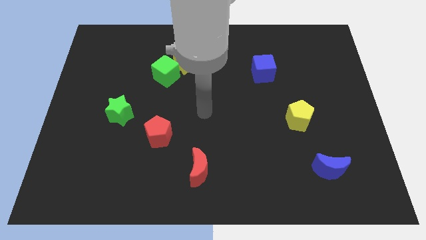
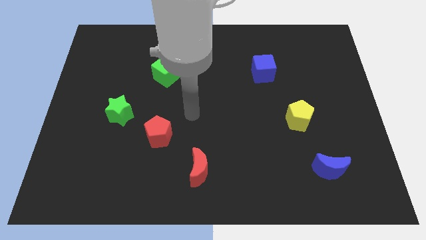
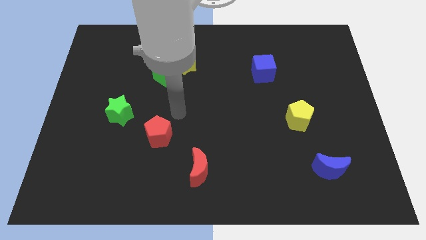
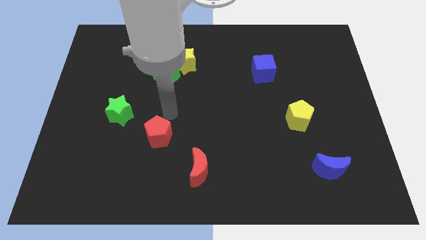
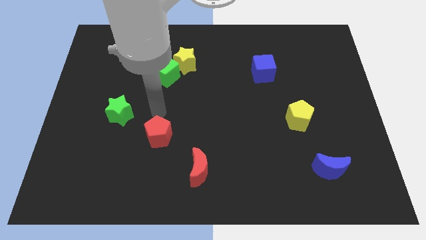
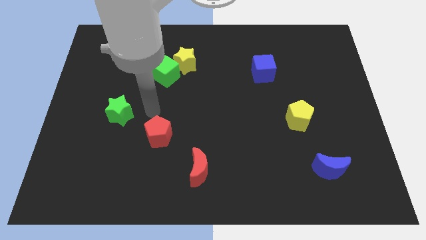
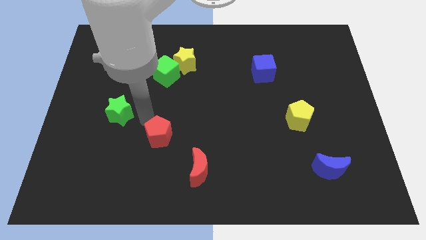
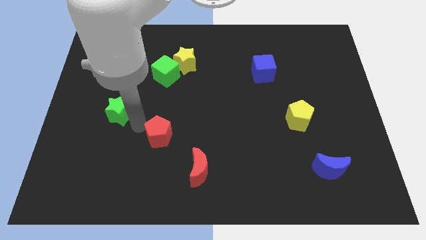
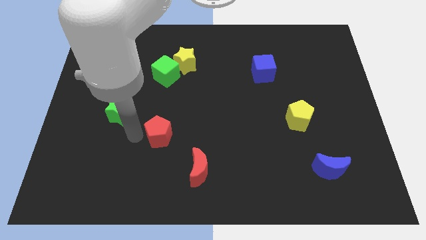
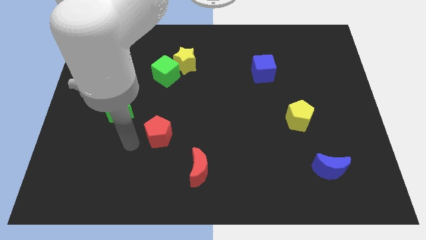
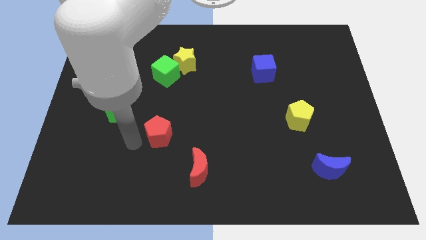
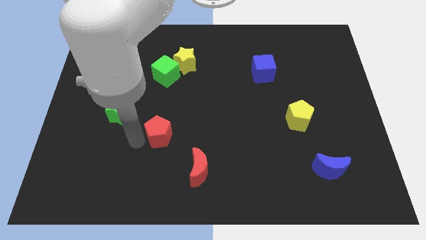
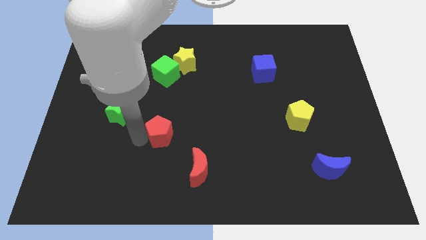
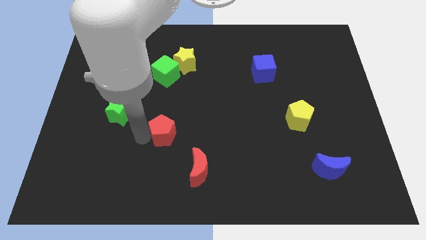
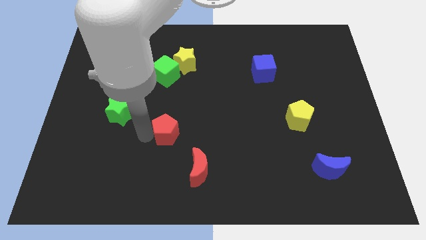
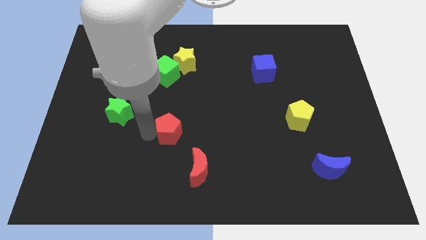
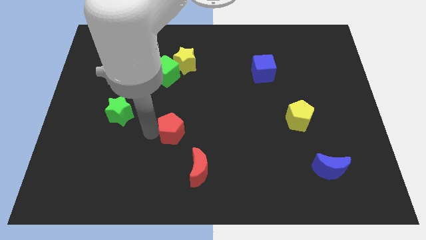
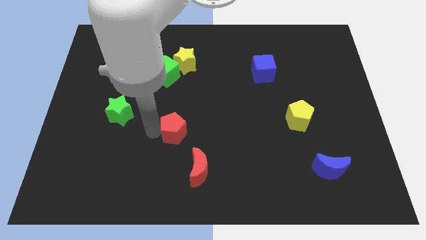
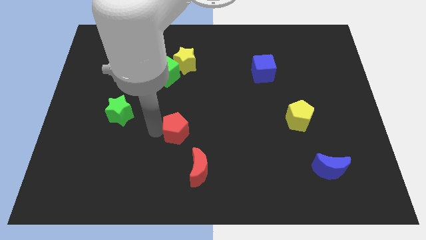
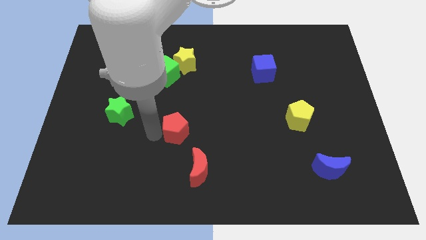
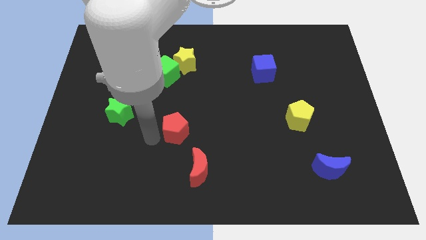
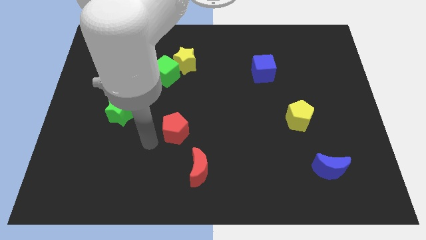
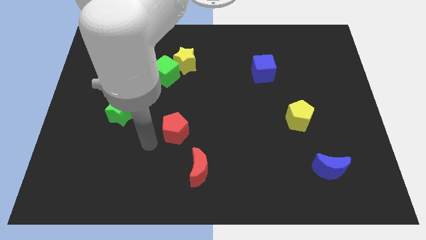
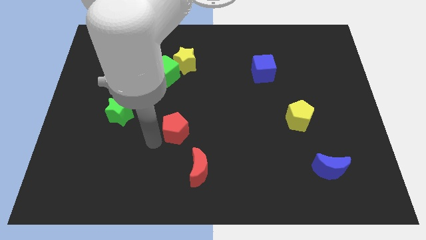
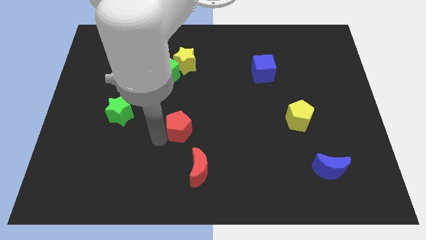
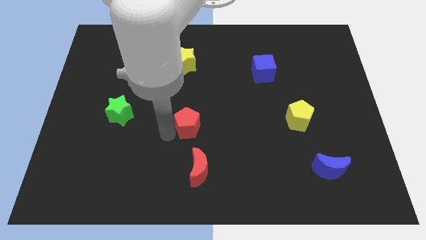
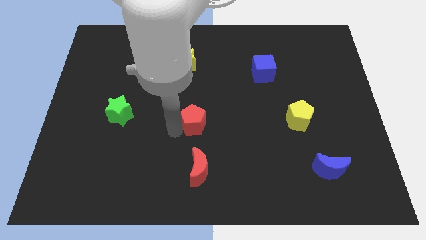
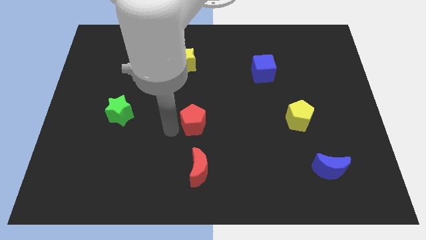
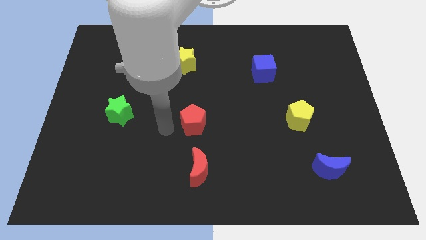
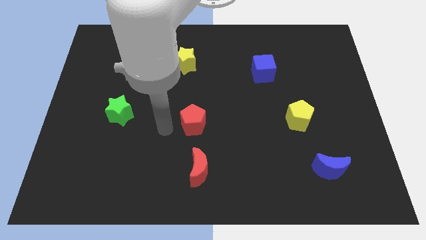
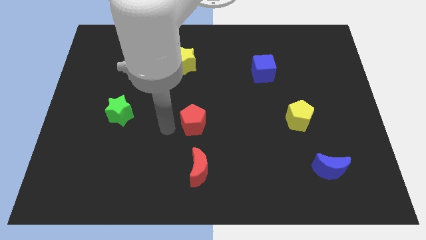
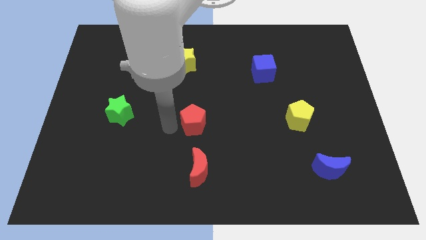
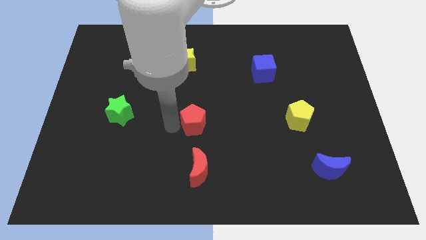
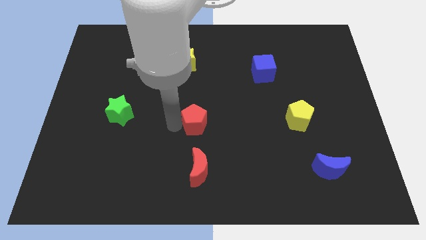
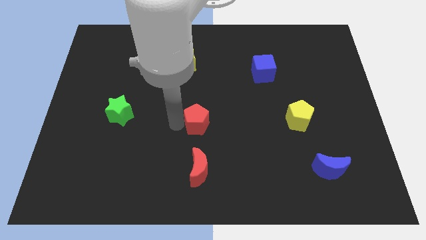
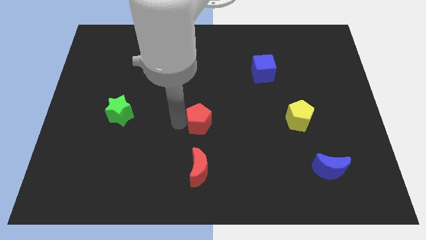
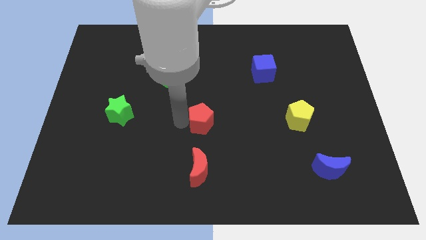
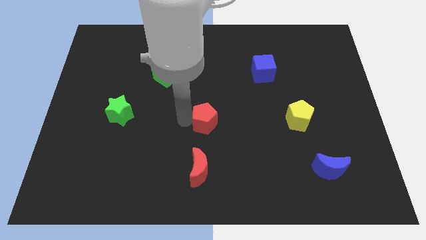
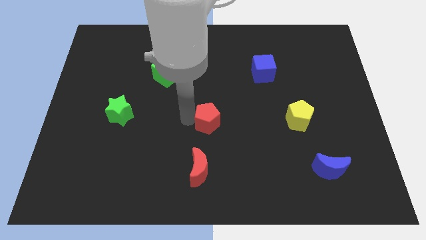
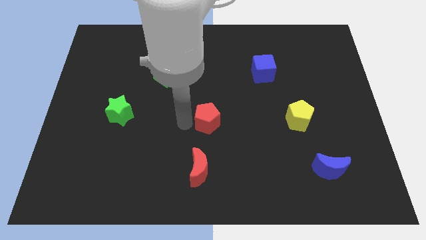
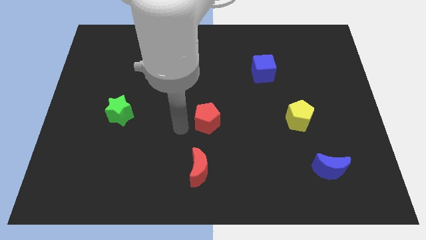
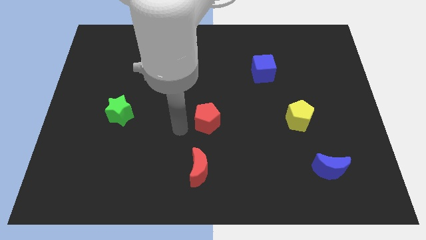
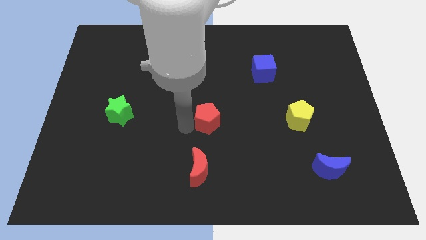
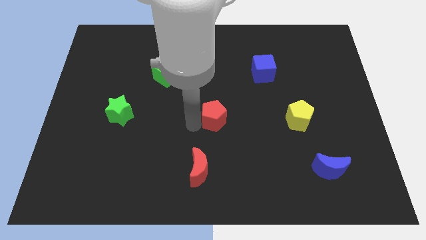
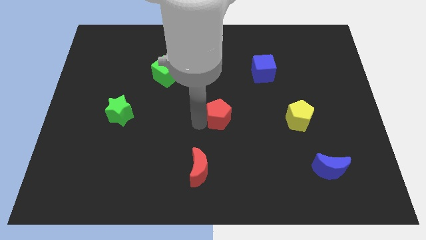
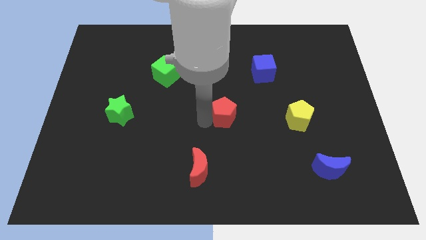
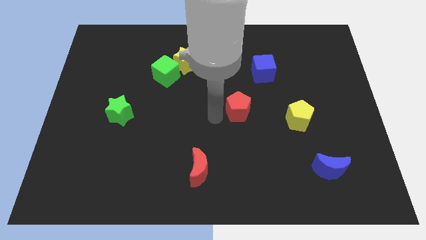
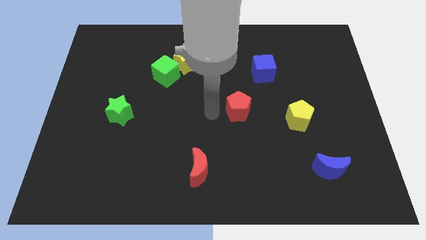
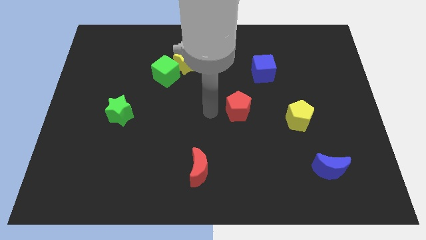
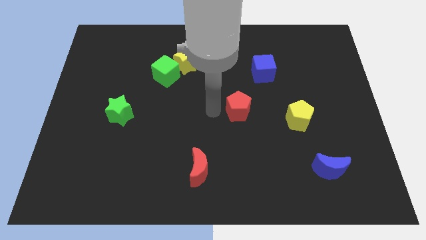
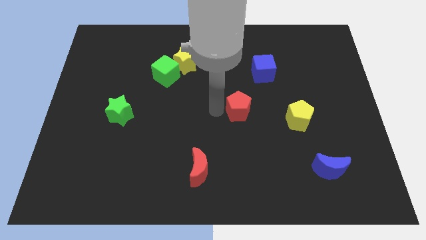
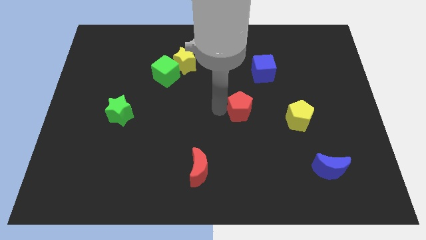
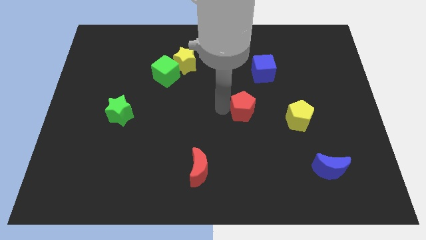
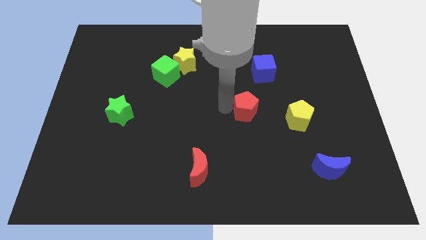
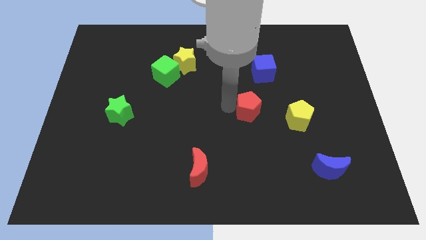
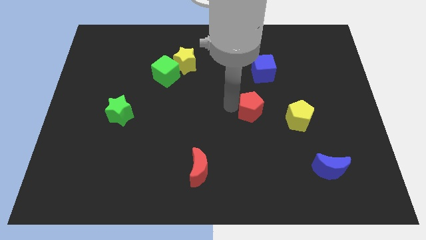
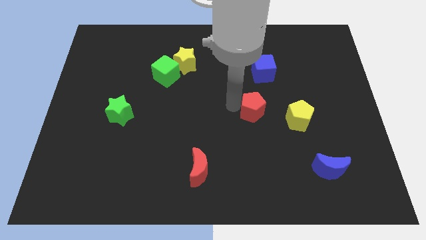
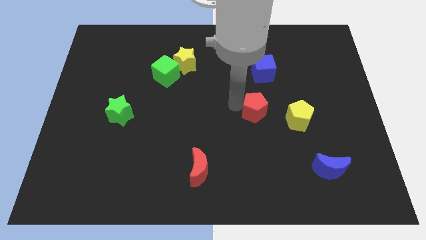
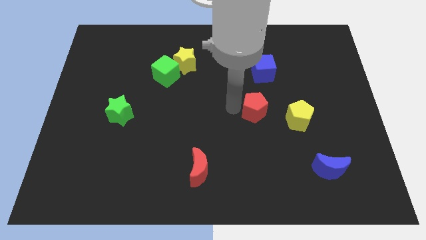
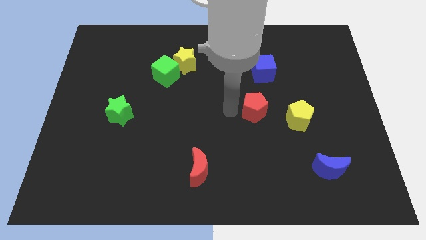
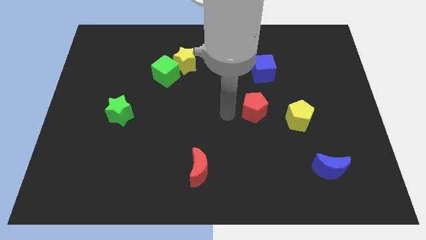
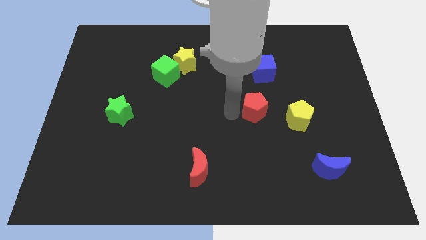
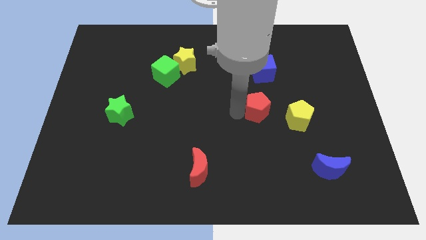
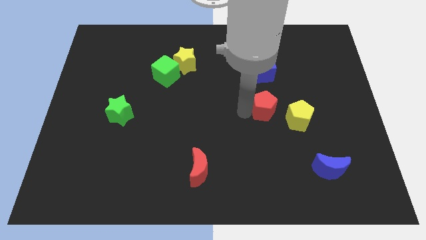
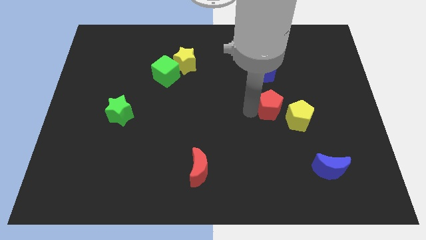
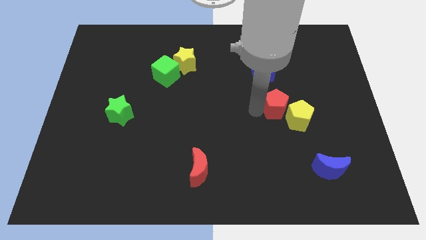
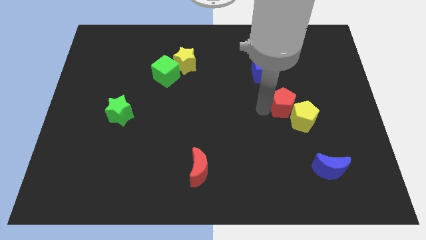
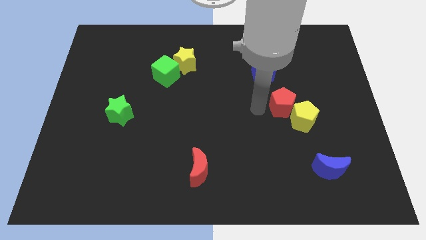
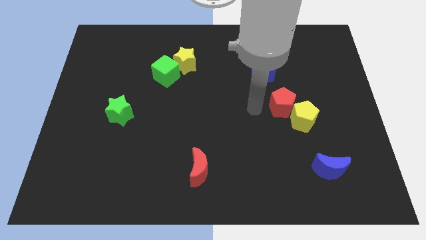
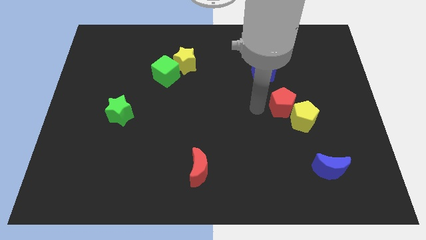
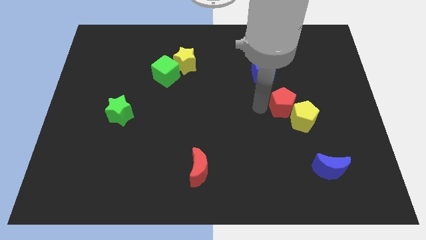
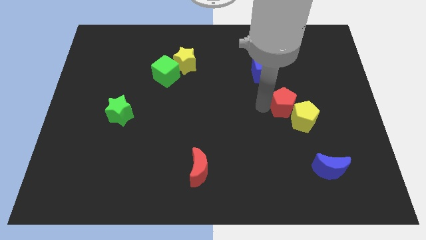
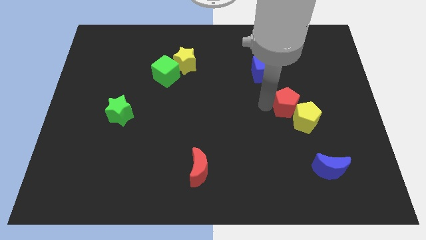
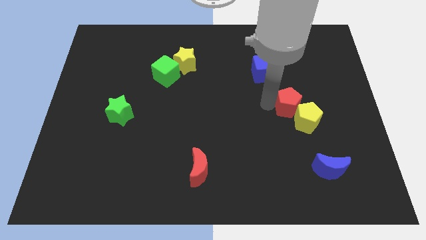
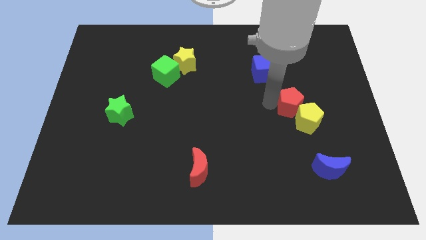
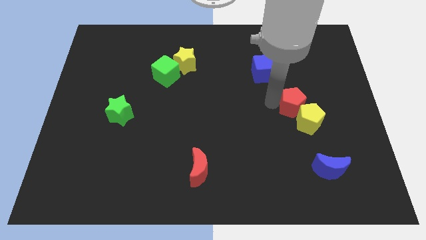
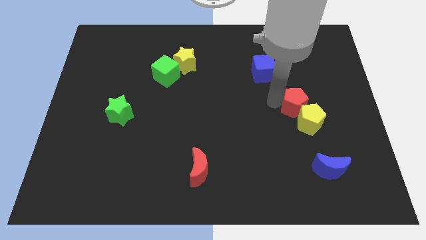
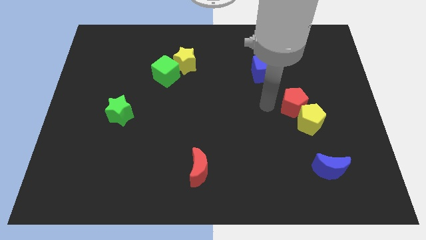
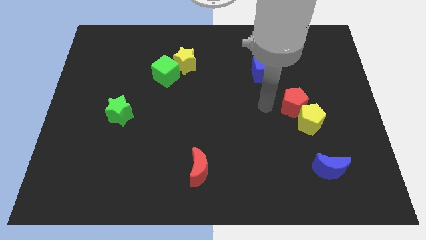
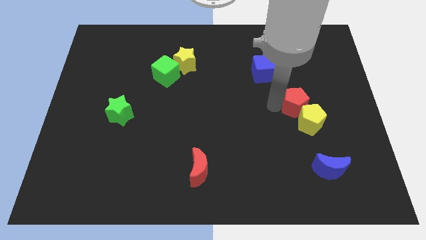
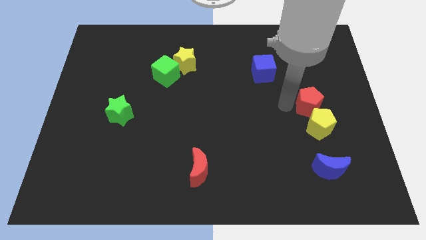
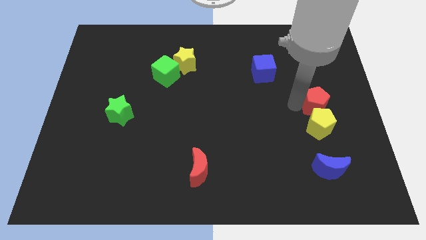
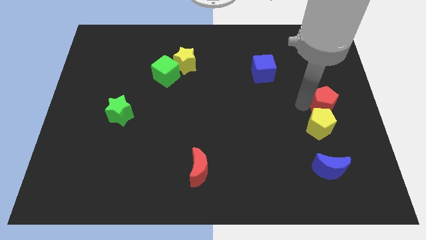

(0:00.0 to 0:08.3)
slide the red pentagon to the right side
